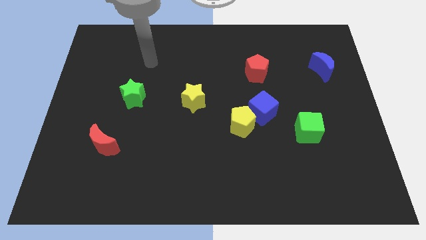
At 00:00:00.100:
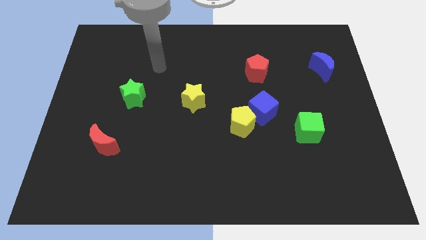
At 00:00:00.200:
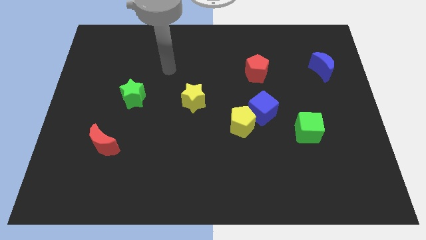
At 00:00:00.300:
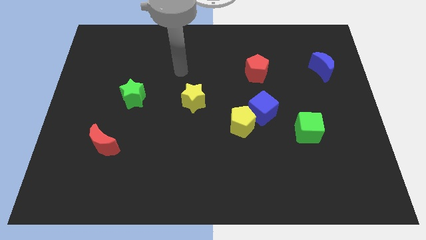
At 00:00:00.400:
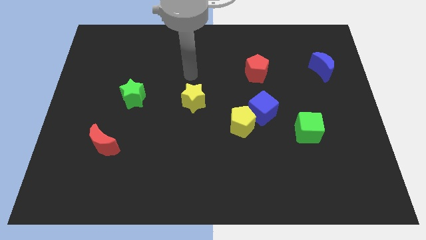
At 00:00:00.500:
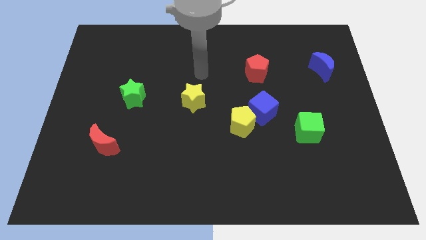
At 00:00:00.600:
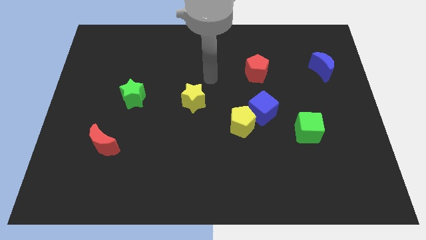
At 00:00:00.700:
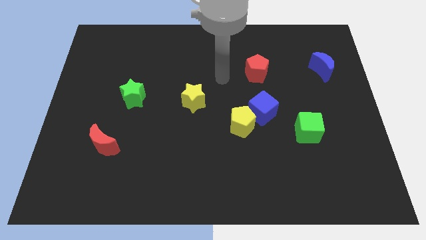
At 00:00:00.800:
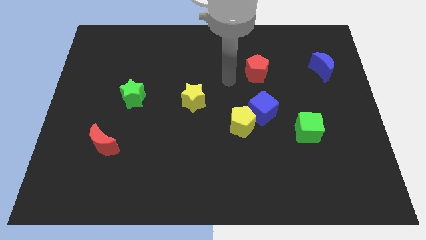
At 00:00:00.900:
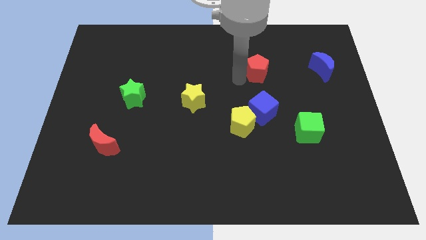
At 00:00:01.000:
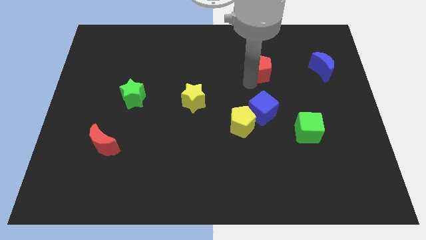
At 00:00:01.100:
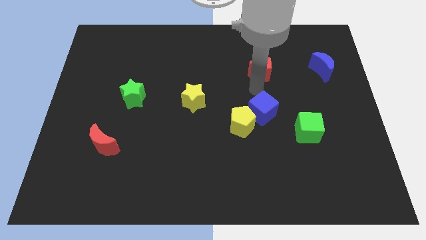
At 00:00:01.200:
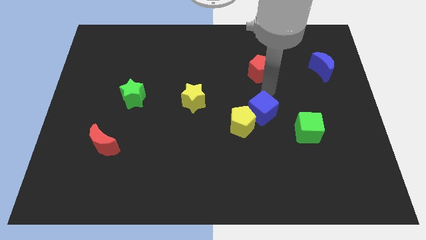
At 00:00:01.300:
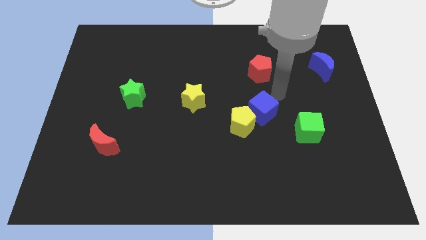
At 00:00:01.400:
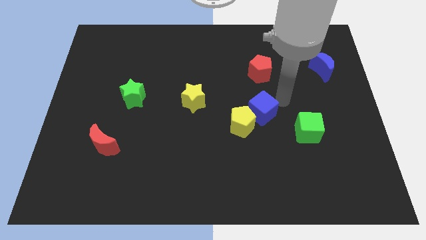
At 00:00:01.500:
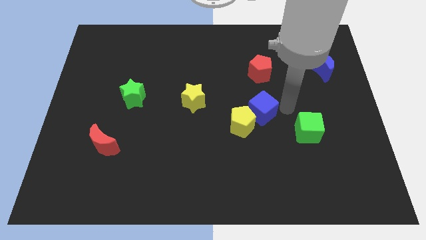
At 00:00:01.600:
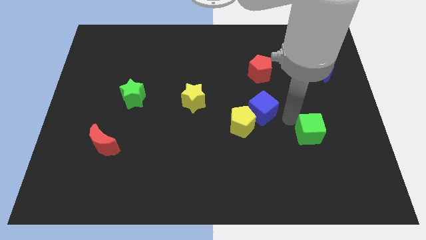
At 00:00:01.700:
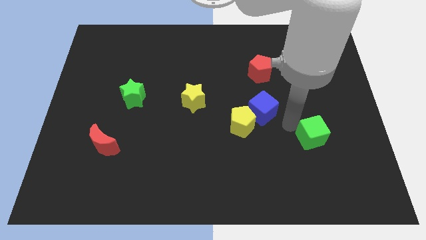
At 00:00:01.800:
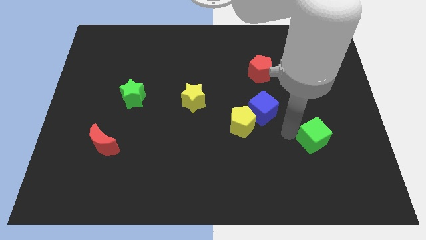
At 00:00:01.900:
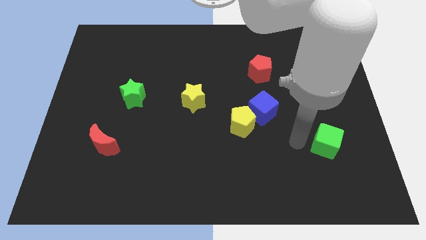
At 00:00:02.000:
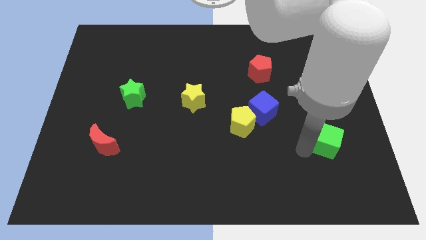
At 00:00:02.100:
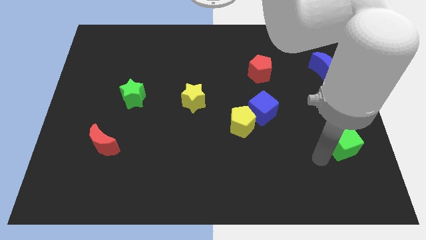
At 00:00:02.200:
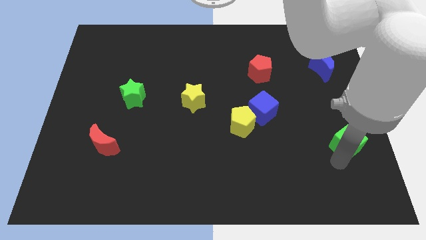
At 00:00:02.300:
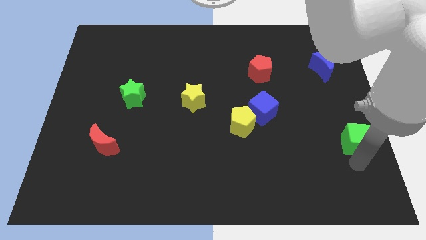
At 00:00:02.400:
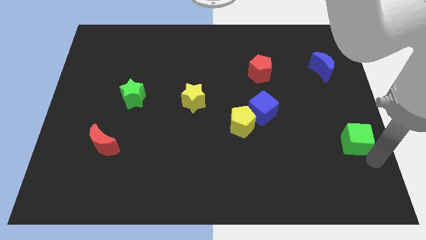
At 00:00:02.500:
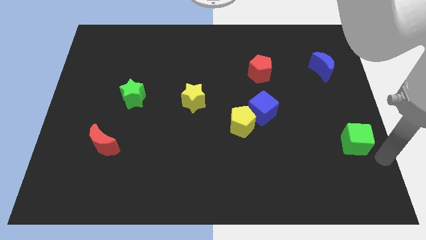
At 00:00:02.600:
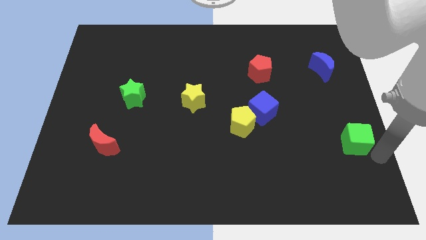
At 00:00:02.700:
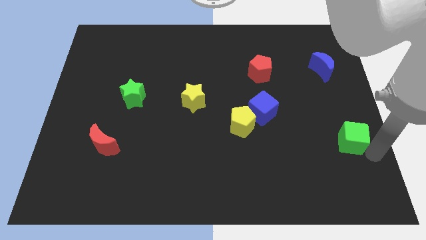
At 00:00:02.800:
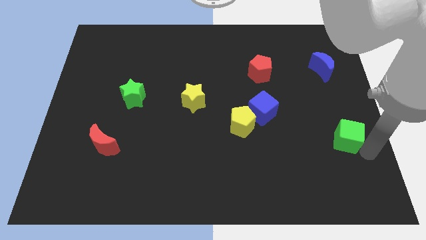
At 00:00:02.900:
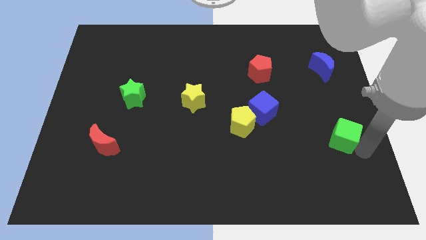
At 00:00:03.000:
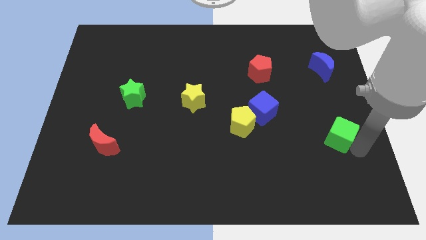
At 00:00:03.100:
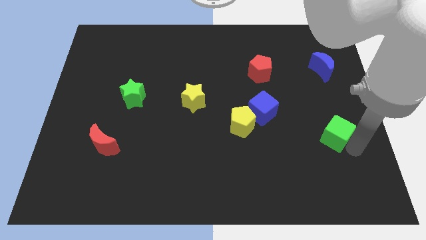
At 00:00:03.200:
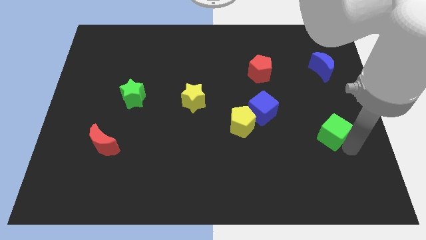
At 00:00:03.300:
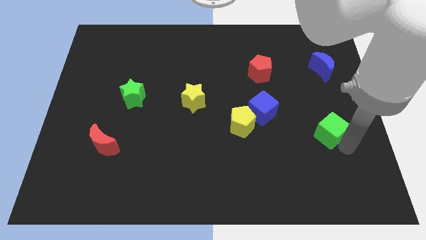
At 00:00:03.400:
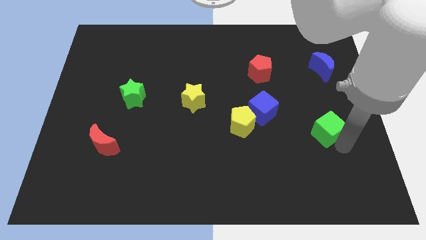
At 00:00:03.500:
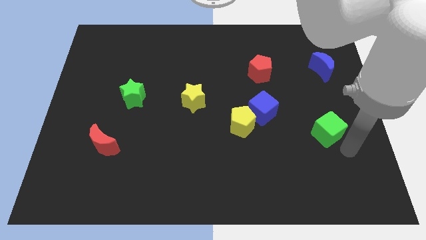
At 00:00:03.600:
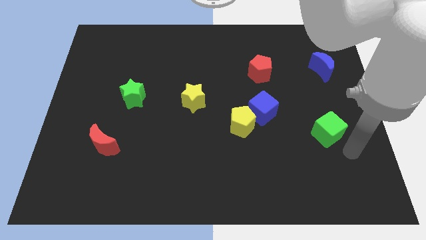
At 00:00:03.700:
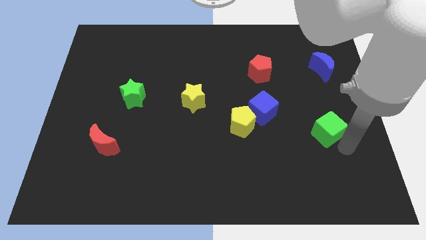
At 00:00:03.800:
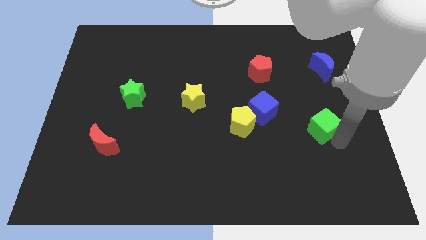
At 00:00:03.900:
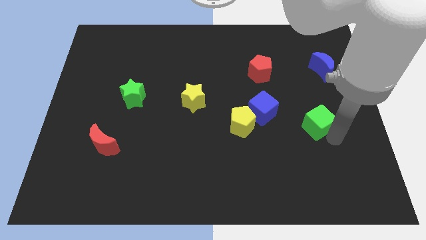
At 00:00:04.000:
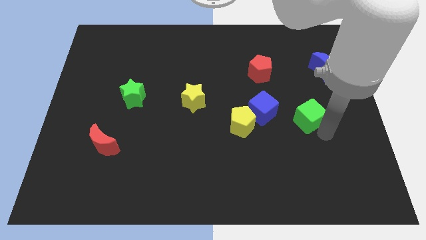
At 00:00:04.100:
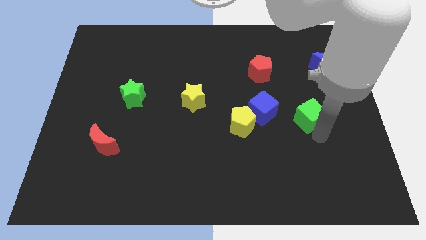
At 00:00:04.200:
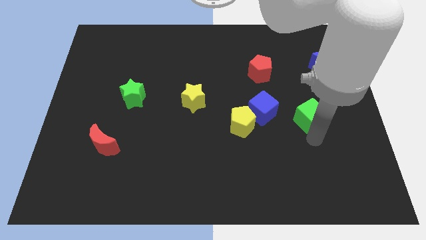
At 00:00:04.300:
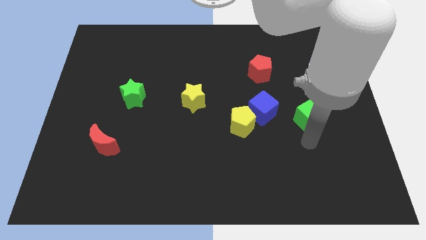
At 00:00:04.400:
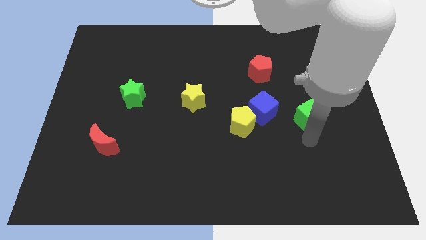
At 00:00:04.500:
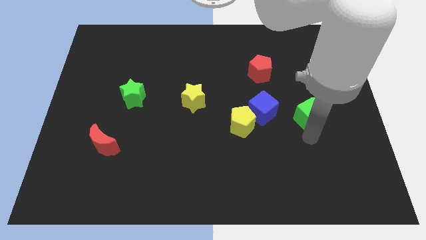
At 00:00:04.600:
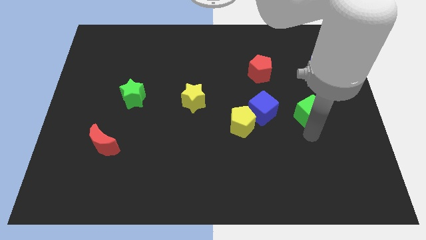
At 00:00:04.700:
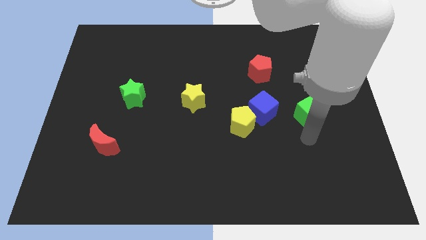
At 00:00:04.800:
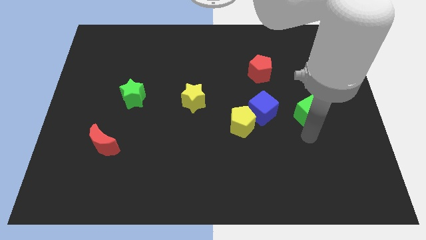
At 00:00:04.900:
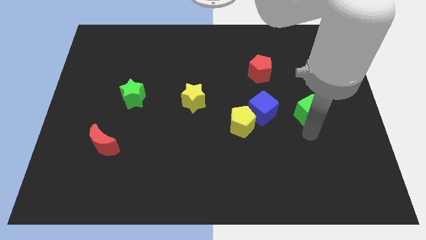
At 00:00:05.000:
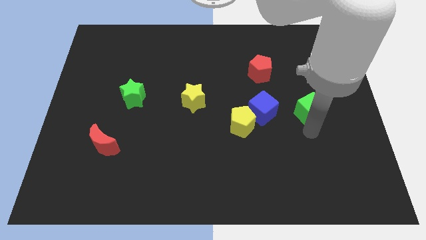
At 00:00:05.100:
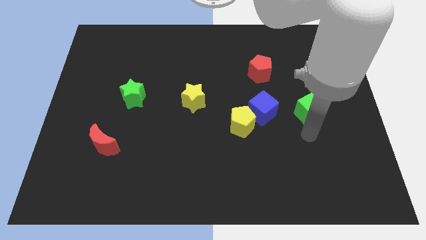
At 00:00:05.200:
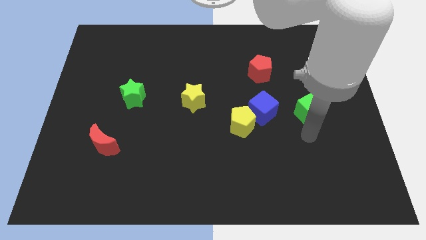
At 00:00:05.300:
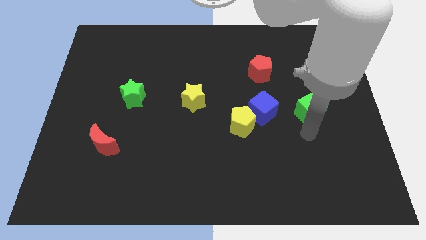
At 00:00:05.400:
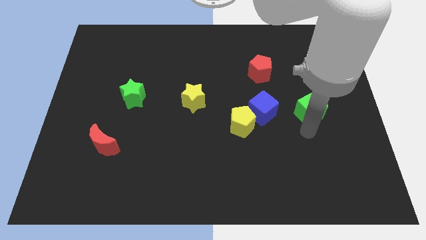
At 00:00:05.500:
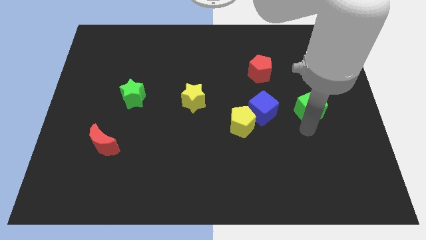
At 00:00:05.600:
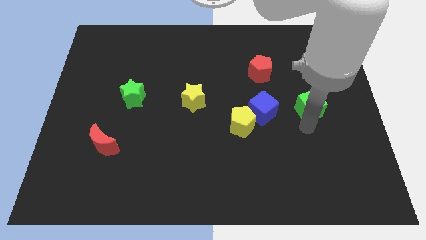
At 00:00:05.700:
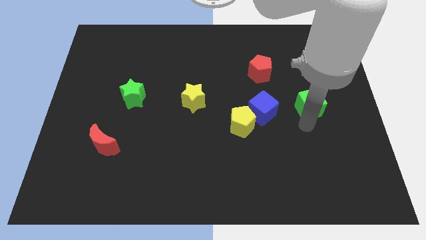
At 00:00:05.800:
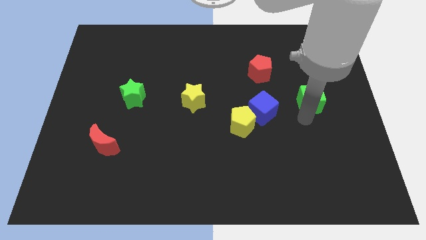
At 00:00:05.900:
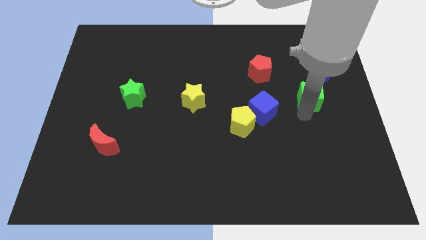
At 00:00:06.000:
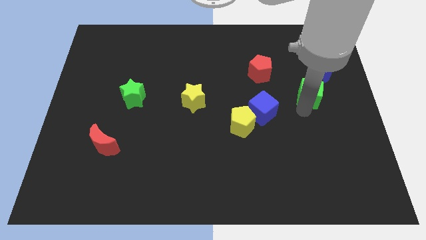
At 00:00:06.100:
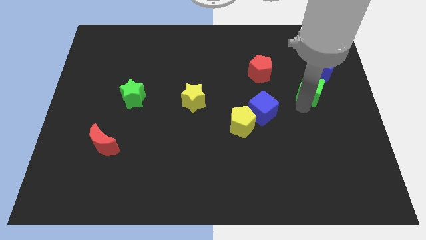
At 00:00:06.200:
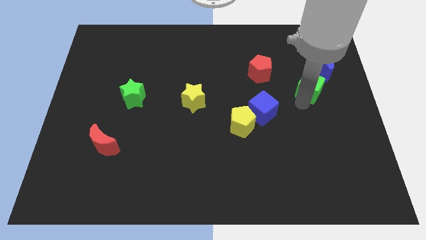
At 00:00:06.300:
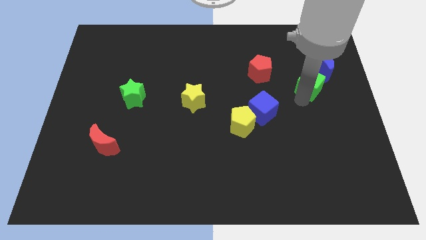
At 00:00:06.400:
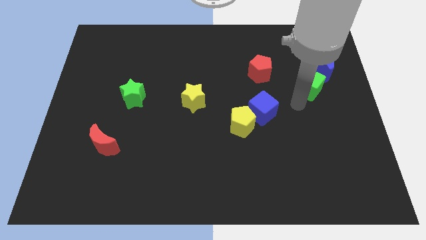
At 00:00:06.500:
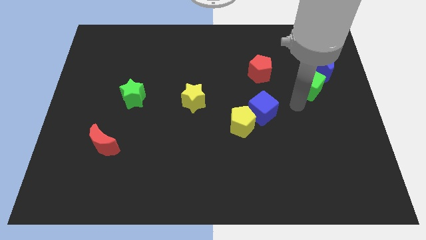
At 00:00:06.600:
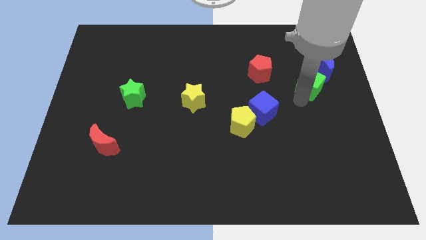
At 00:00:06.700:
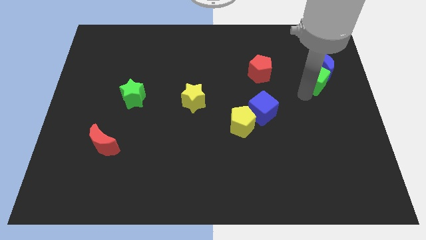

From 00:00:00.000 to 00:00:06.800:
put the green cube to the blue moon

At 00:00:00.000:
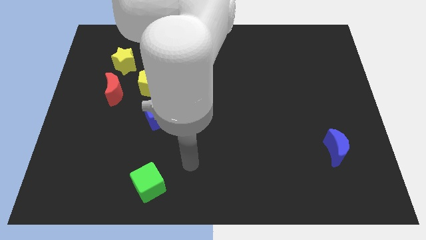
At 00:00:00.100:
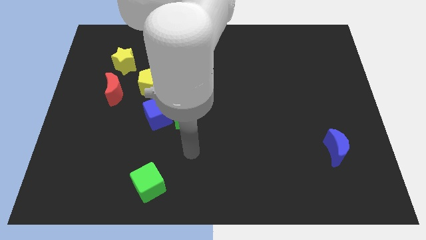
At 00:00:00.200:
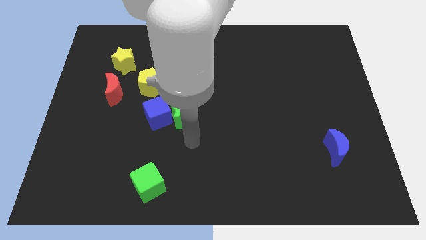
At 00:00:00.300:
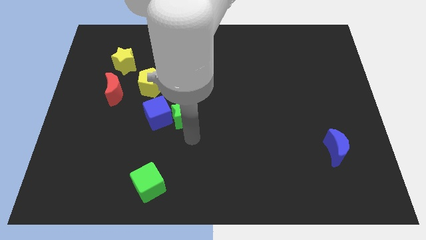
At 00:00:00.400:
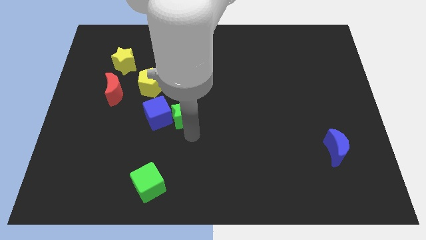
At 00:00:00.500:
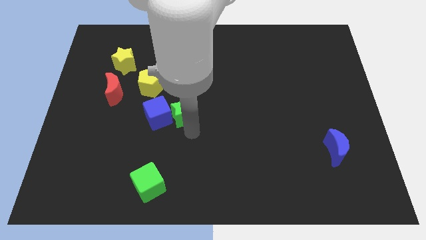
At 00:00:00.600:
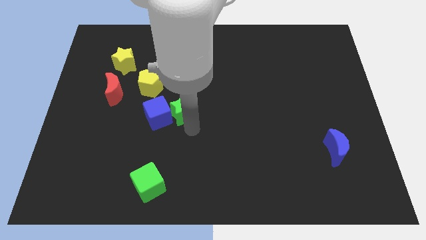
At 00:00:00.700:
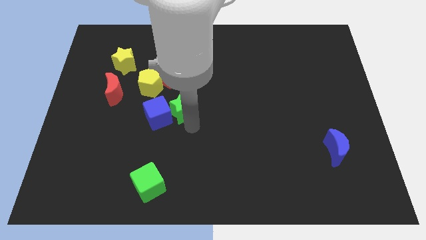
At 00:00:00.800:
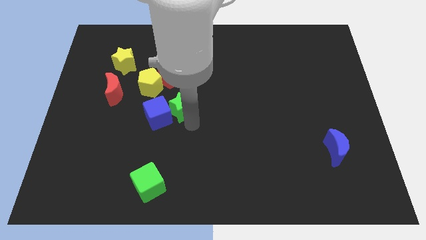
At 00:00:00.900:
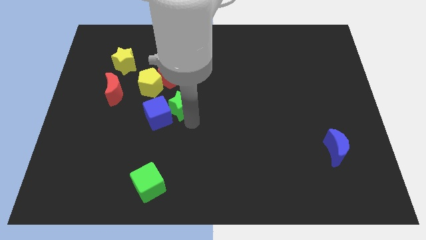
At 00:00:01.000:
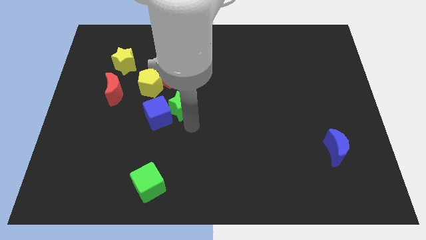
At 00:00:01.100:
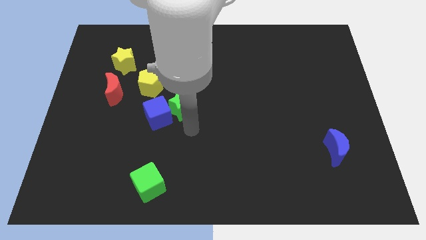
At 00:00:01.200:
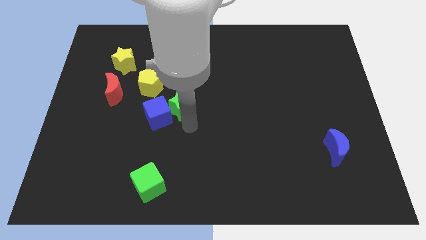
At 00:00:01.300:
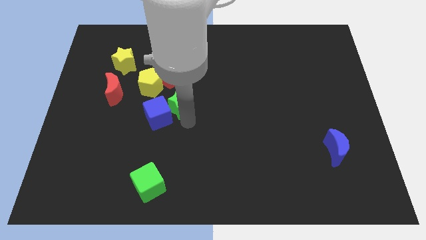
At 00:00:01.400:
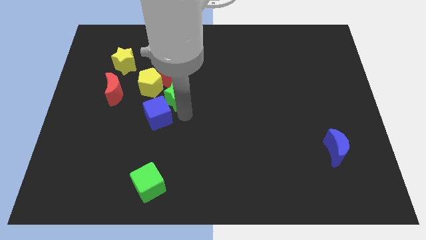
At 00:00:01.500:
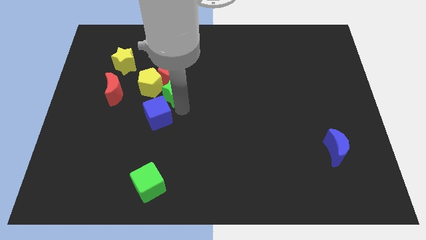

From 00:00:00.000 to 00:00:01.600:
slide the green star close to the red pentagon
